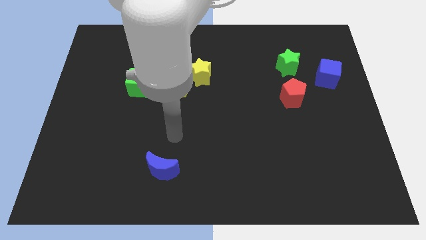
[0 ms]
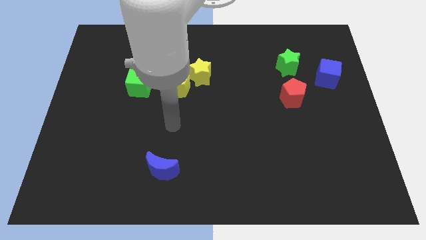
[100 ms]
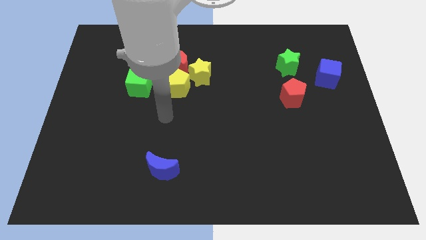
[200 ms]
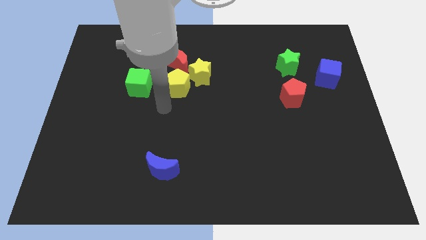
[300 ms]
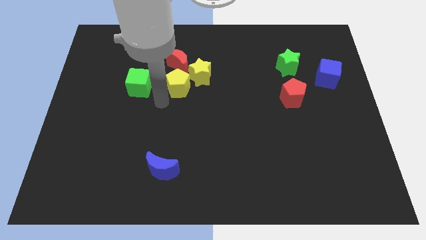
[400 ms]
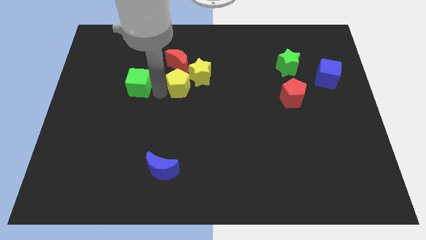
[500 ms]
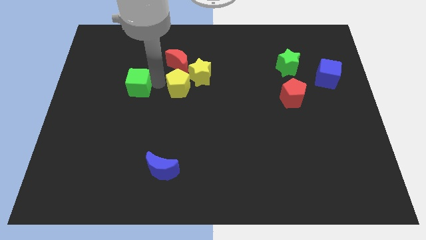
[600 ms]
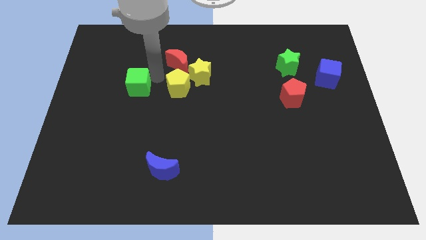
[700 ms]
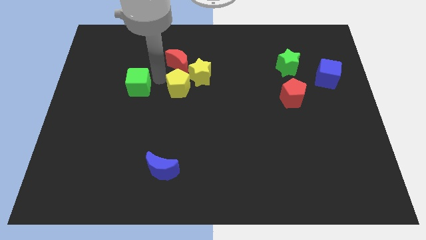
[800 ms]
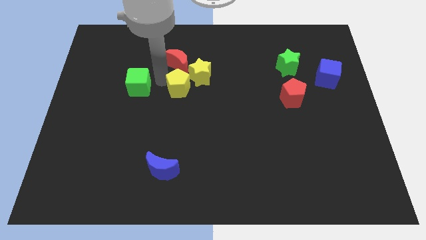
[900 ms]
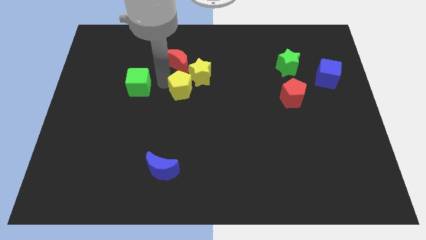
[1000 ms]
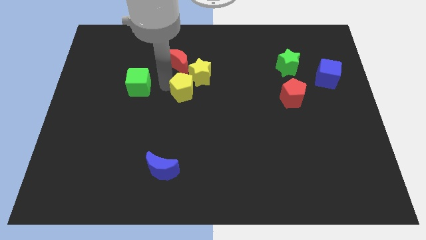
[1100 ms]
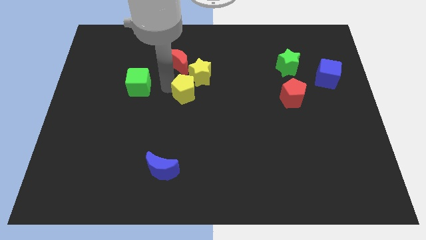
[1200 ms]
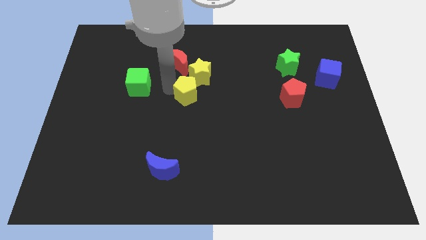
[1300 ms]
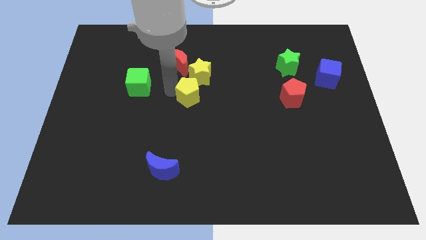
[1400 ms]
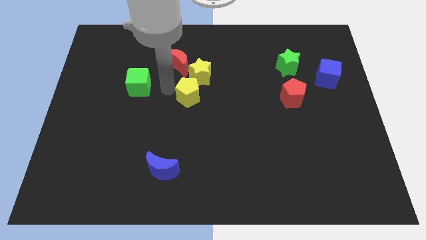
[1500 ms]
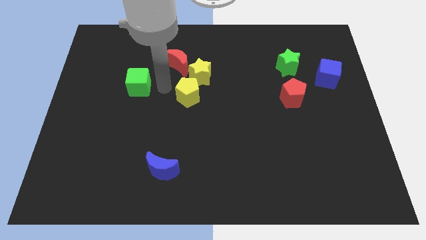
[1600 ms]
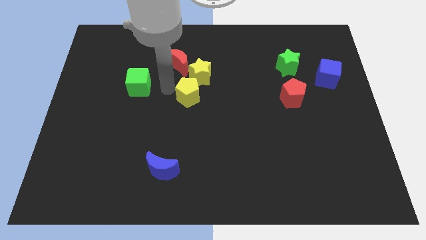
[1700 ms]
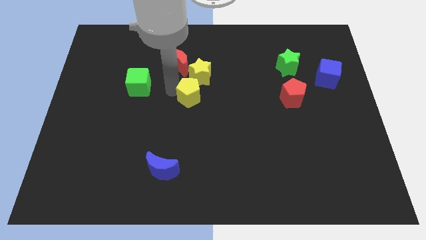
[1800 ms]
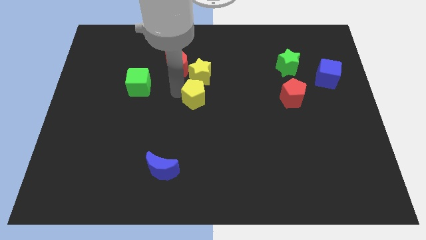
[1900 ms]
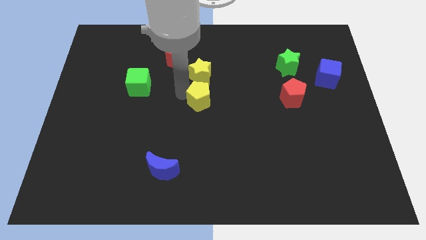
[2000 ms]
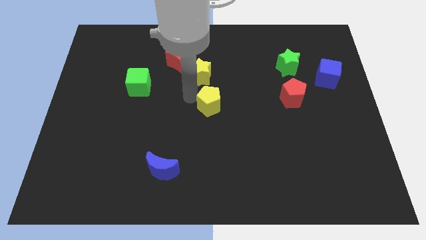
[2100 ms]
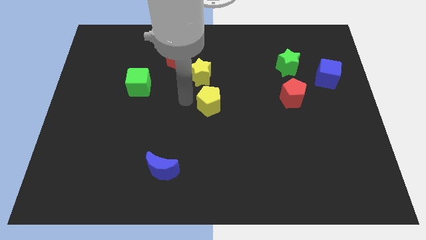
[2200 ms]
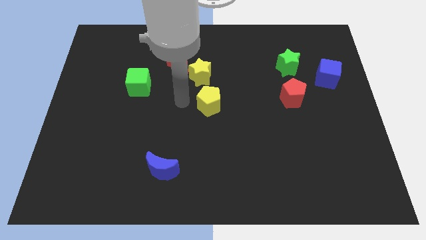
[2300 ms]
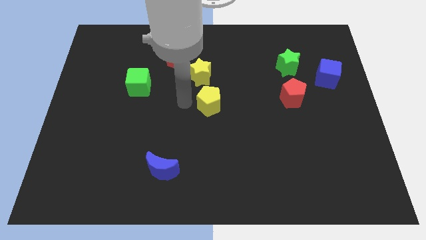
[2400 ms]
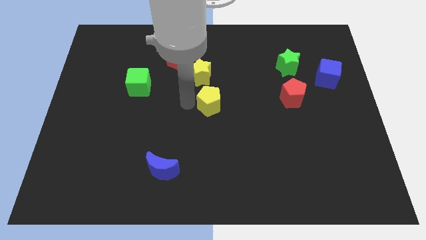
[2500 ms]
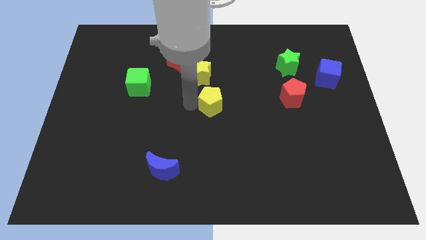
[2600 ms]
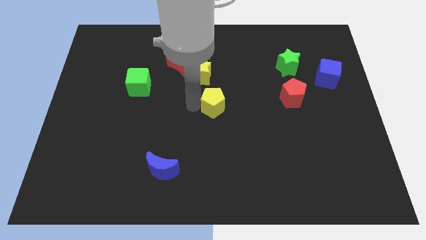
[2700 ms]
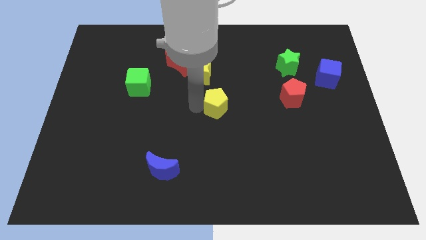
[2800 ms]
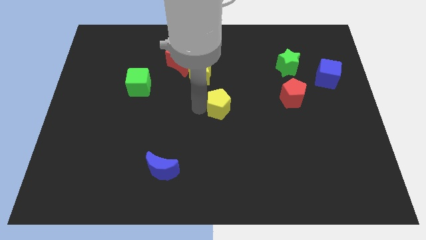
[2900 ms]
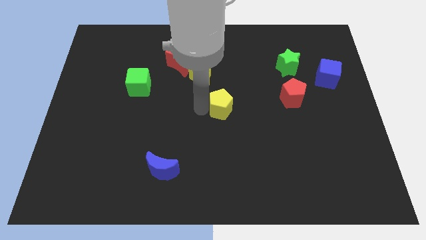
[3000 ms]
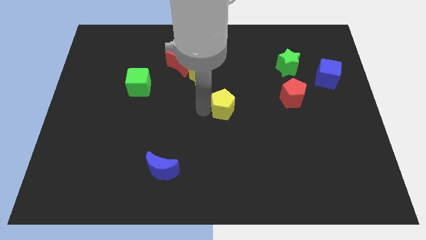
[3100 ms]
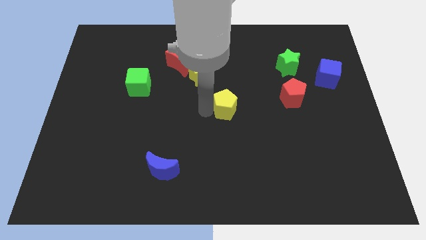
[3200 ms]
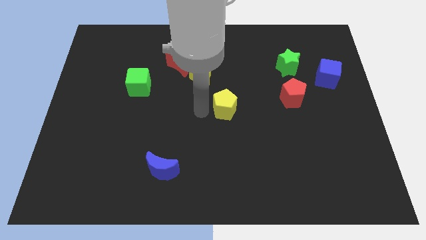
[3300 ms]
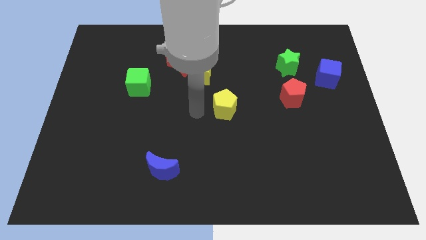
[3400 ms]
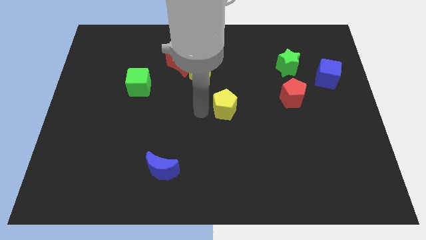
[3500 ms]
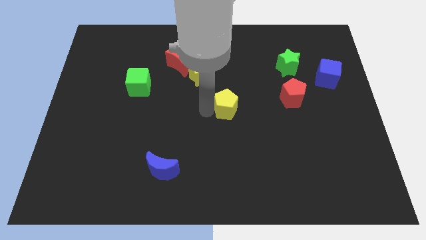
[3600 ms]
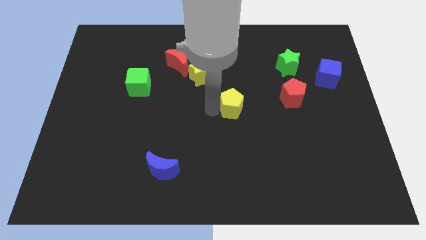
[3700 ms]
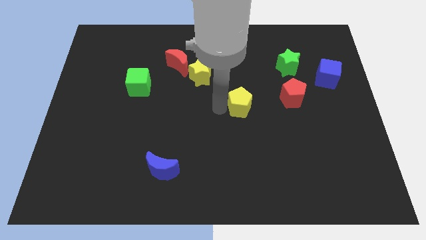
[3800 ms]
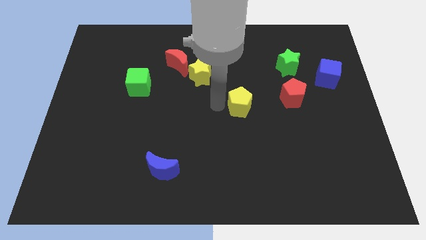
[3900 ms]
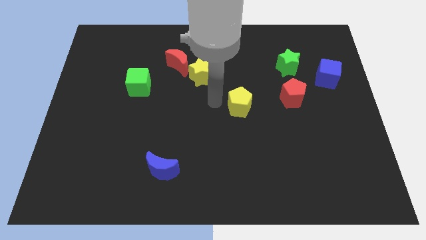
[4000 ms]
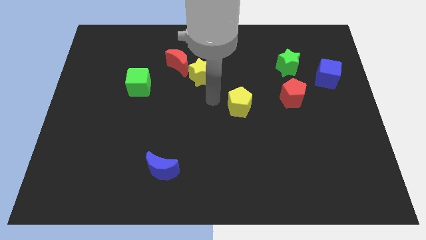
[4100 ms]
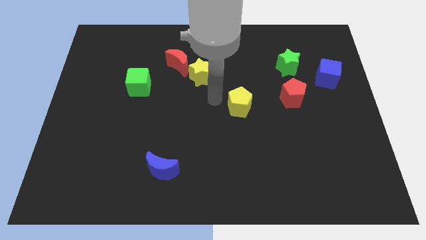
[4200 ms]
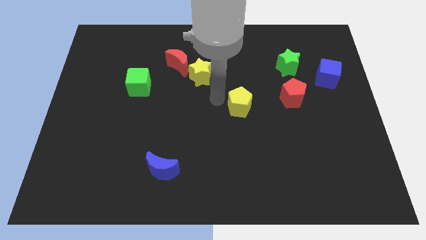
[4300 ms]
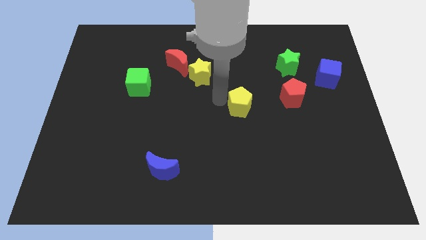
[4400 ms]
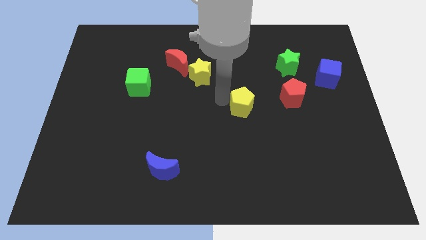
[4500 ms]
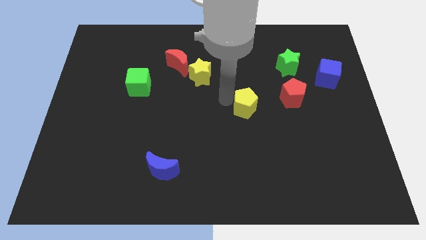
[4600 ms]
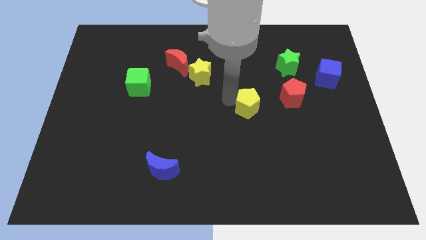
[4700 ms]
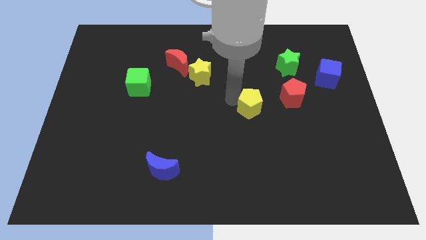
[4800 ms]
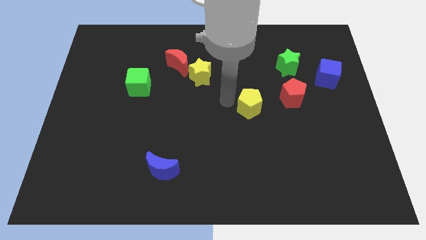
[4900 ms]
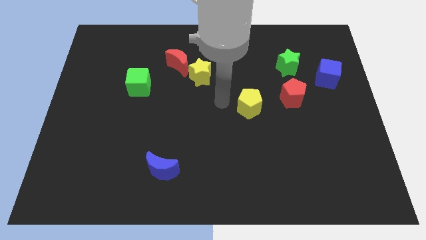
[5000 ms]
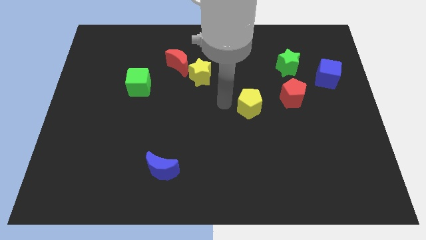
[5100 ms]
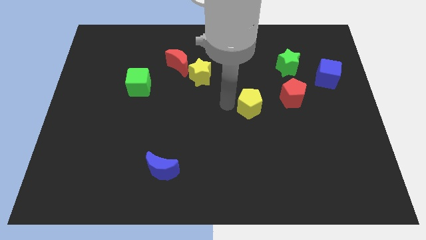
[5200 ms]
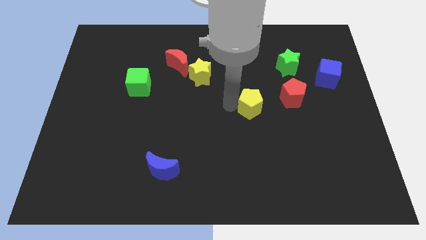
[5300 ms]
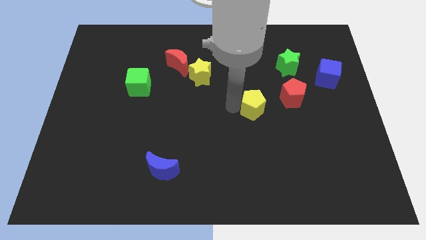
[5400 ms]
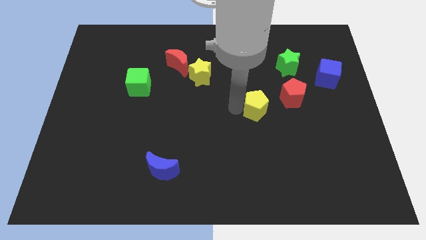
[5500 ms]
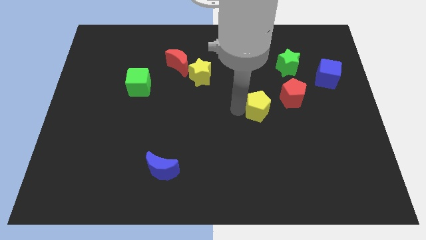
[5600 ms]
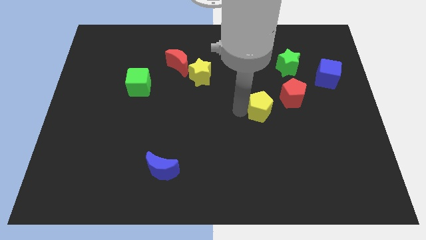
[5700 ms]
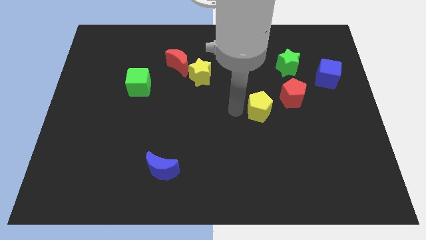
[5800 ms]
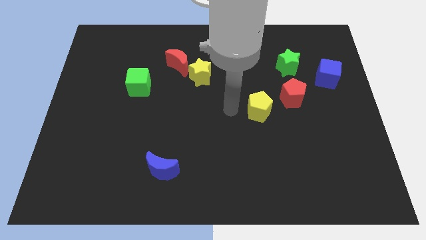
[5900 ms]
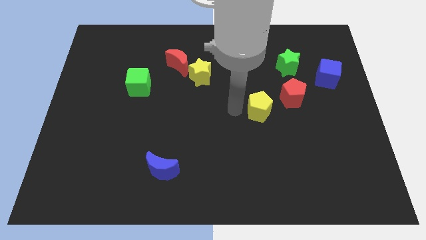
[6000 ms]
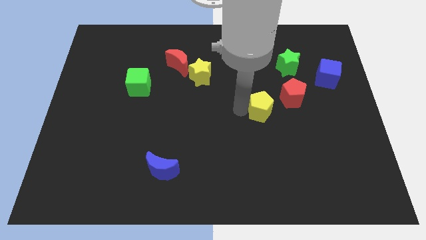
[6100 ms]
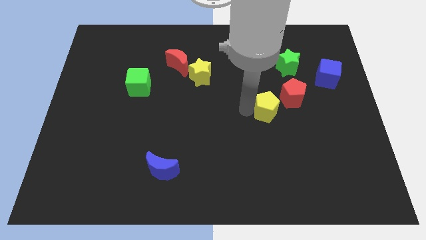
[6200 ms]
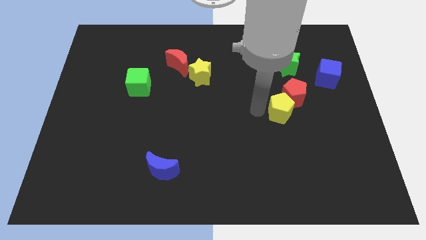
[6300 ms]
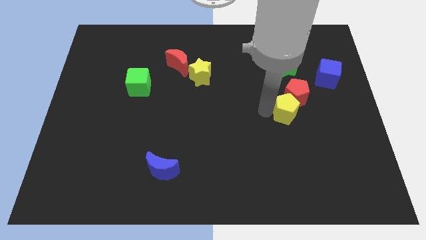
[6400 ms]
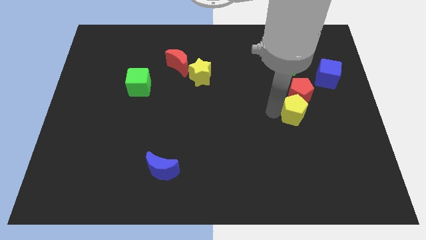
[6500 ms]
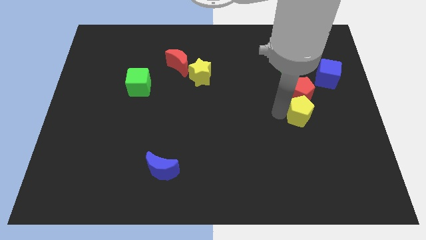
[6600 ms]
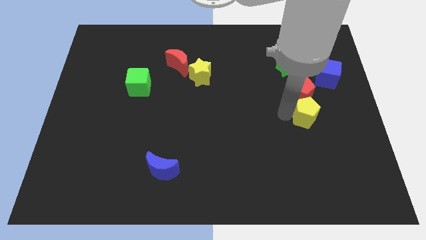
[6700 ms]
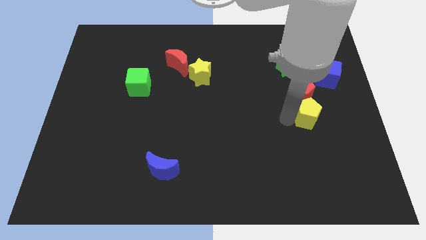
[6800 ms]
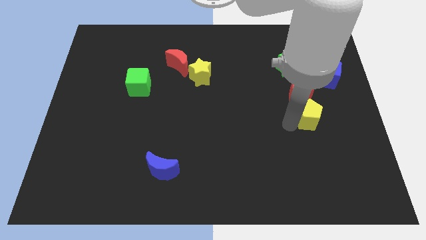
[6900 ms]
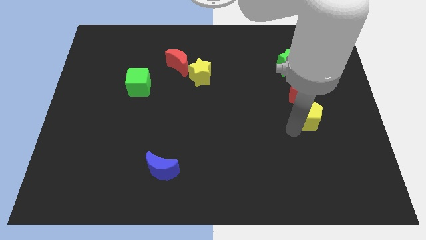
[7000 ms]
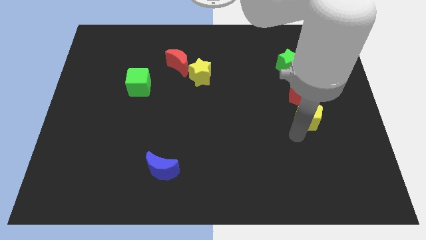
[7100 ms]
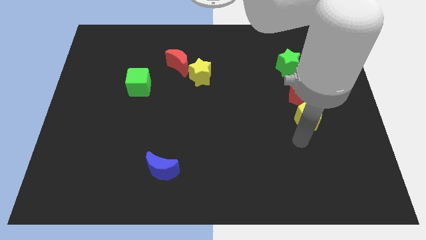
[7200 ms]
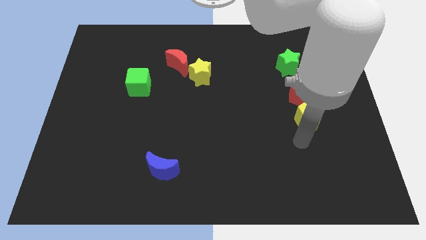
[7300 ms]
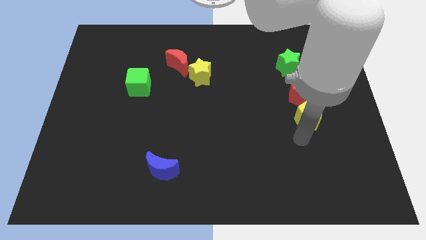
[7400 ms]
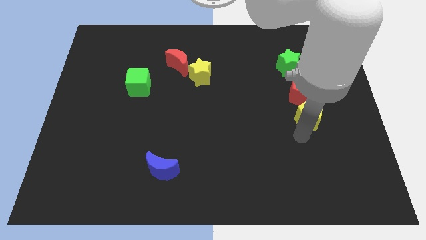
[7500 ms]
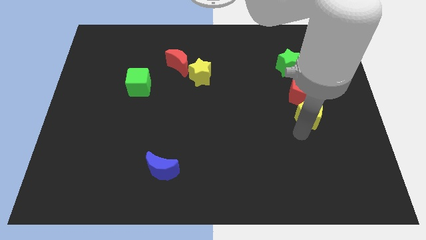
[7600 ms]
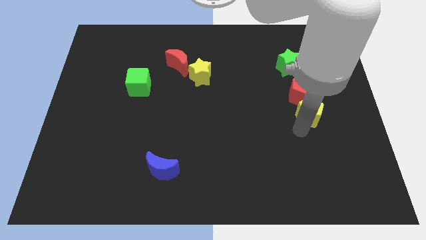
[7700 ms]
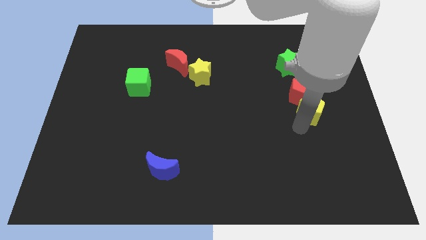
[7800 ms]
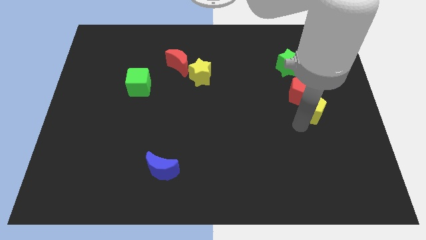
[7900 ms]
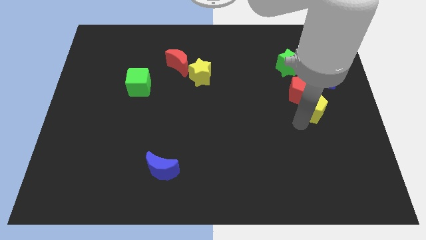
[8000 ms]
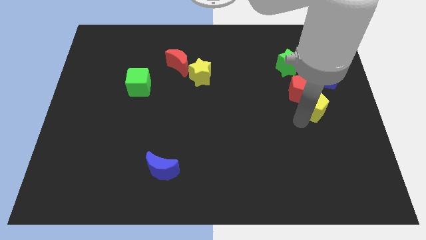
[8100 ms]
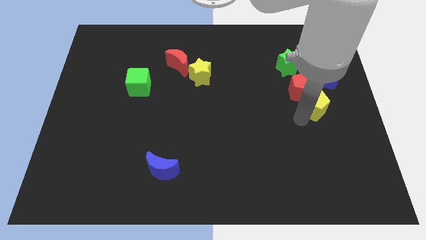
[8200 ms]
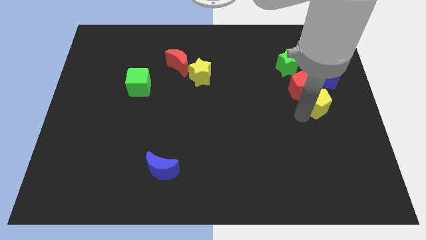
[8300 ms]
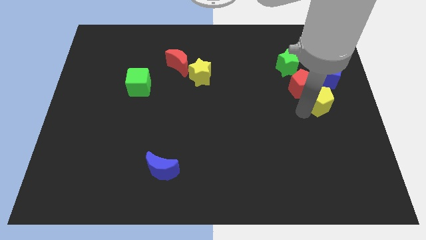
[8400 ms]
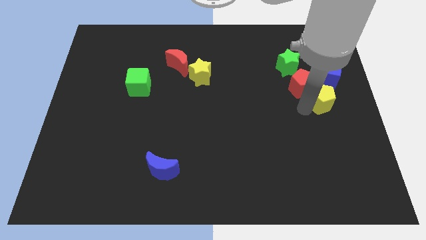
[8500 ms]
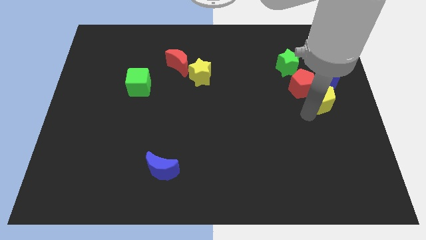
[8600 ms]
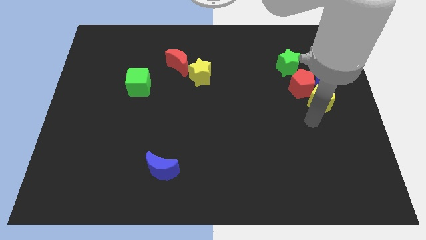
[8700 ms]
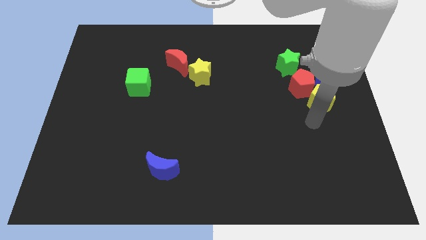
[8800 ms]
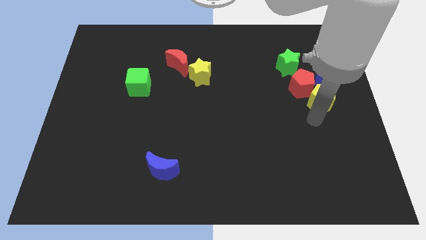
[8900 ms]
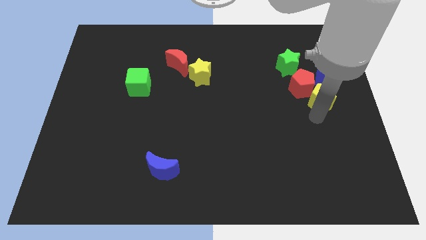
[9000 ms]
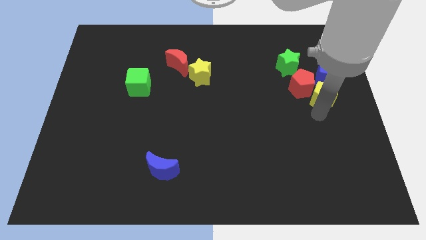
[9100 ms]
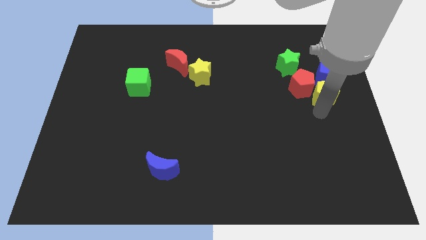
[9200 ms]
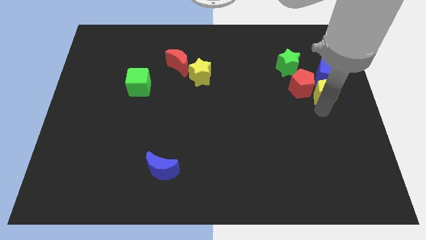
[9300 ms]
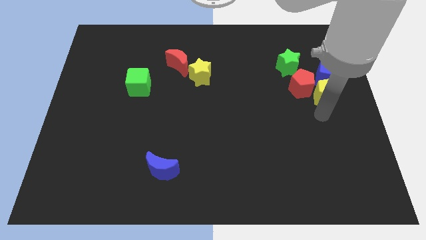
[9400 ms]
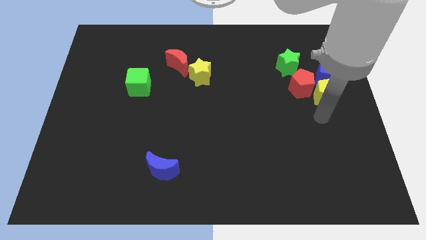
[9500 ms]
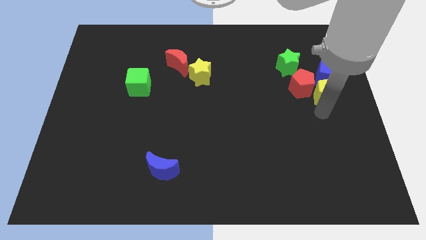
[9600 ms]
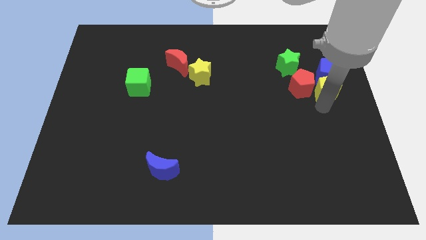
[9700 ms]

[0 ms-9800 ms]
move the yellow pentagon towards the blue cube
